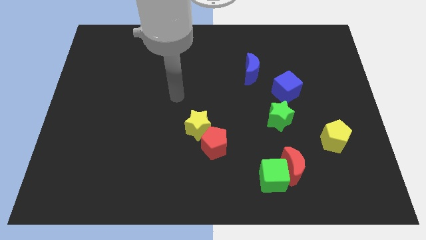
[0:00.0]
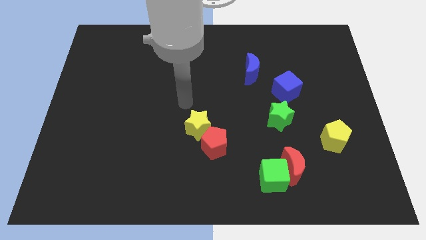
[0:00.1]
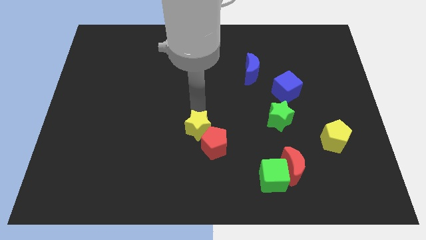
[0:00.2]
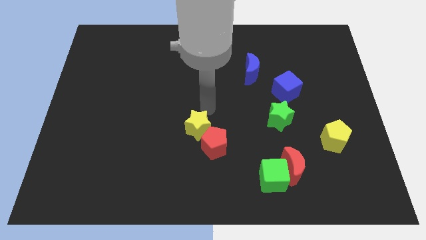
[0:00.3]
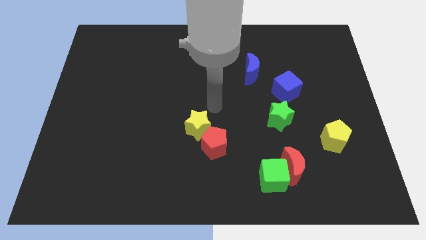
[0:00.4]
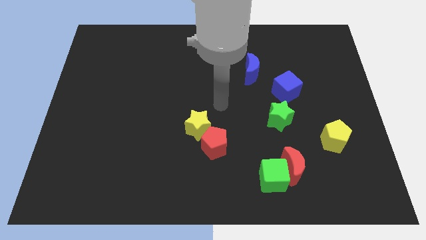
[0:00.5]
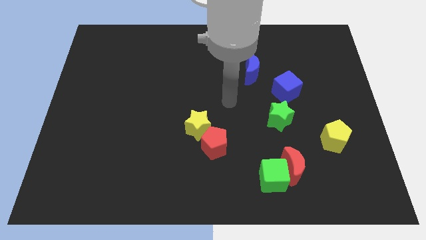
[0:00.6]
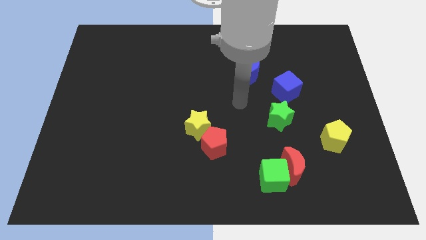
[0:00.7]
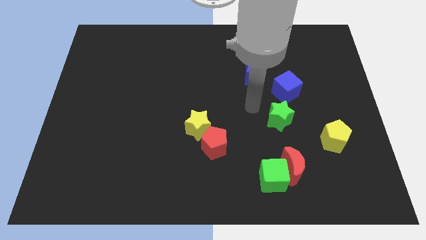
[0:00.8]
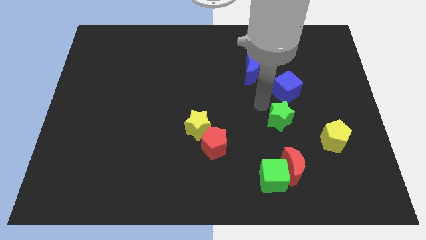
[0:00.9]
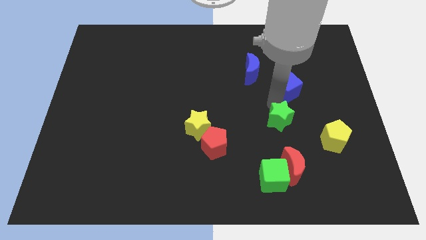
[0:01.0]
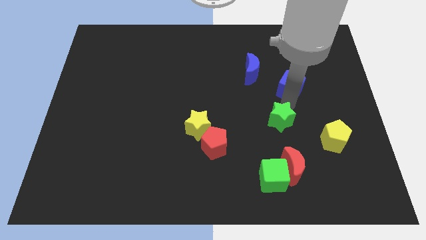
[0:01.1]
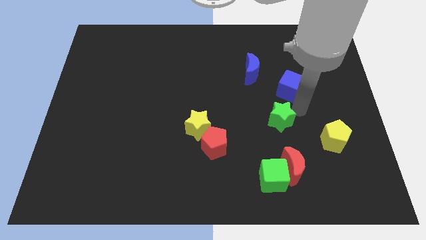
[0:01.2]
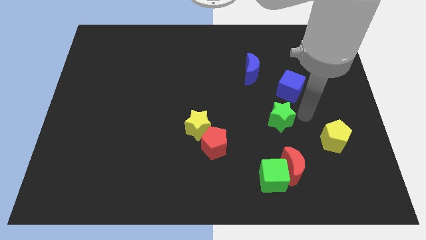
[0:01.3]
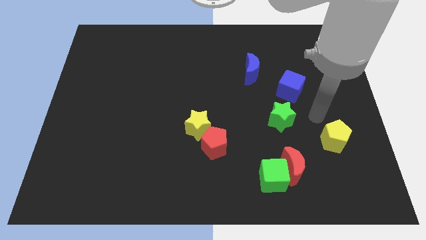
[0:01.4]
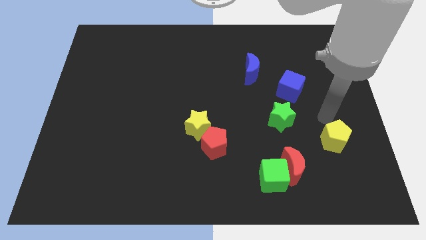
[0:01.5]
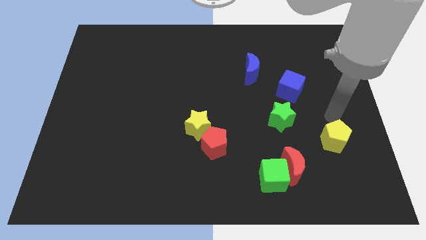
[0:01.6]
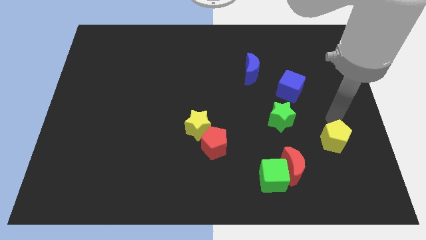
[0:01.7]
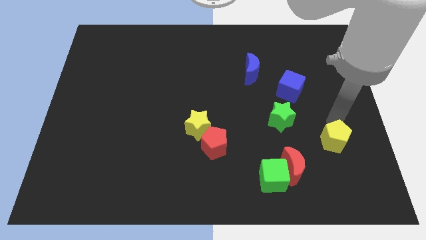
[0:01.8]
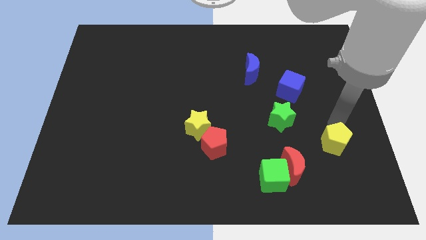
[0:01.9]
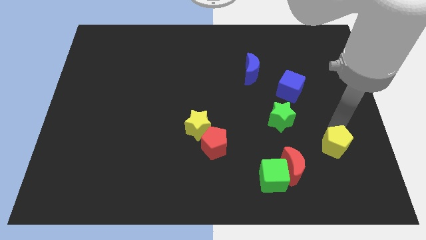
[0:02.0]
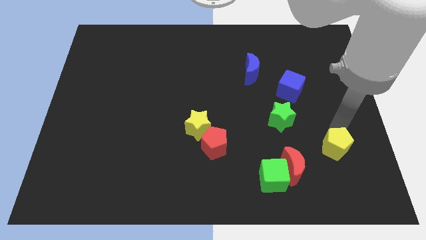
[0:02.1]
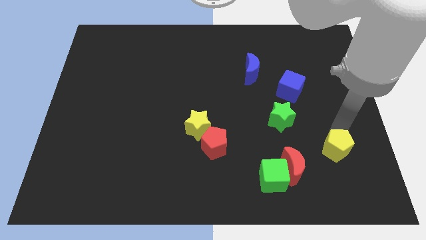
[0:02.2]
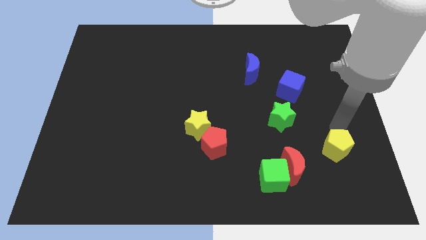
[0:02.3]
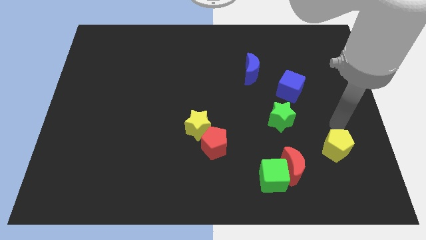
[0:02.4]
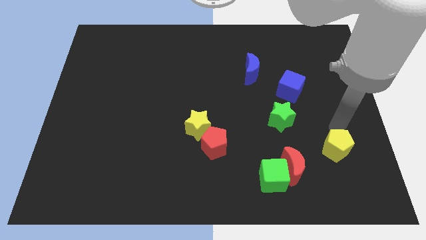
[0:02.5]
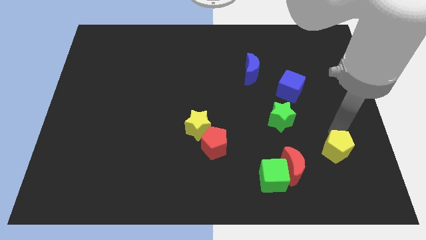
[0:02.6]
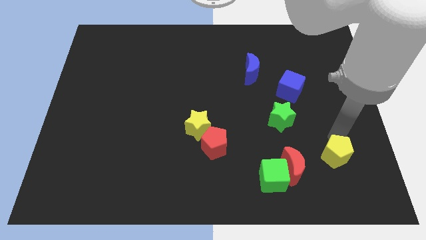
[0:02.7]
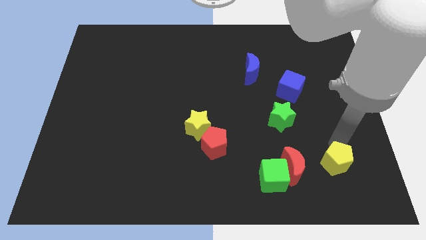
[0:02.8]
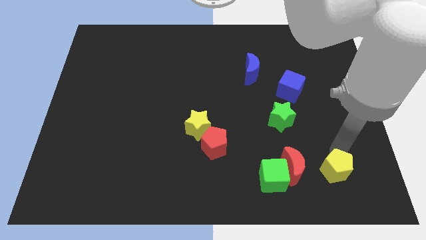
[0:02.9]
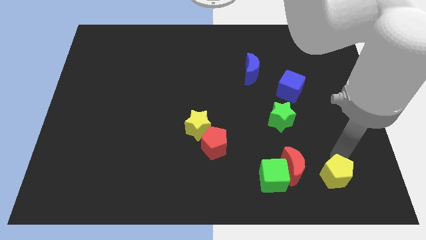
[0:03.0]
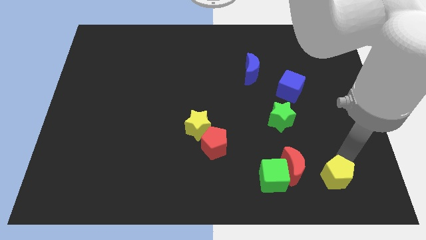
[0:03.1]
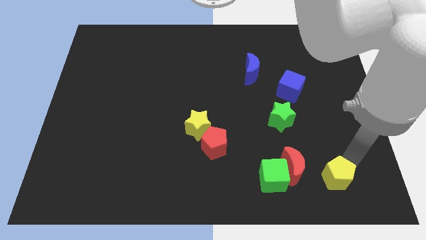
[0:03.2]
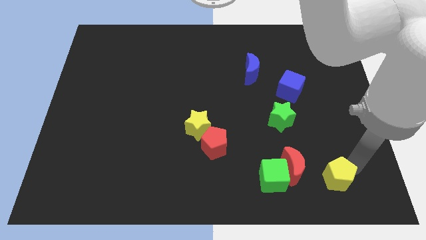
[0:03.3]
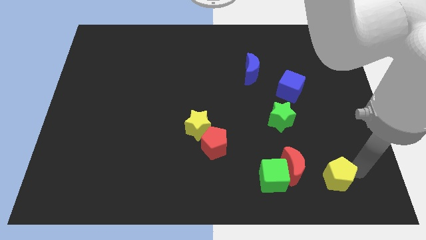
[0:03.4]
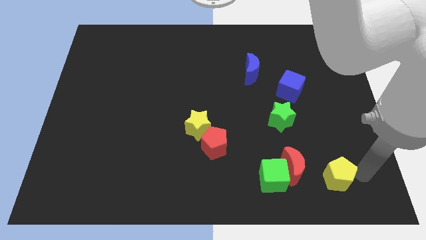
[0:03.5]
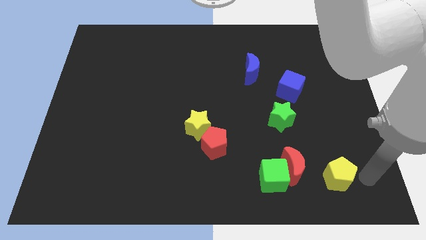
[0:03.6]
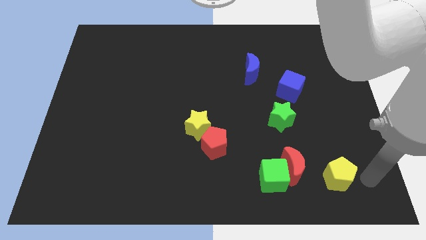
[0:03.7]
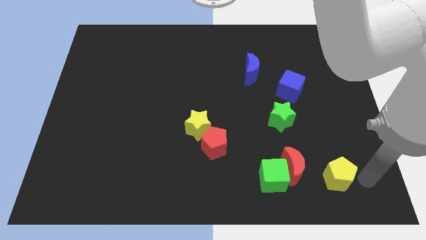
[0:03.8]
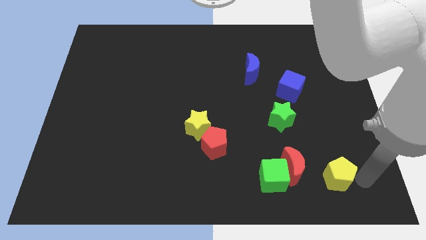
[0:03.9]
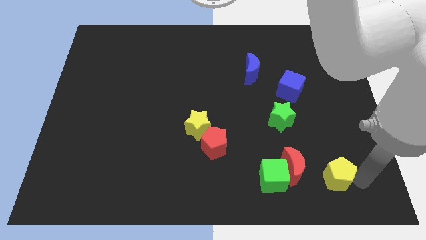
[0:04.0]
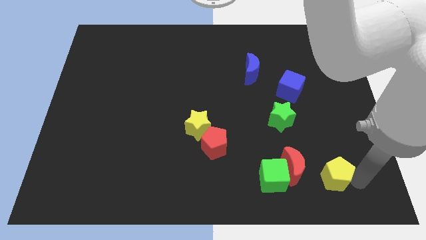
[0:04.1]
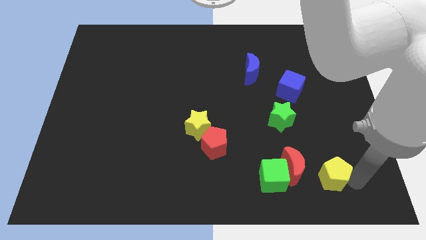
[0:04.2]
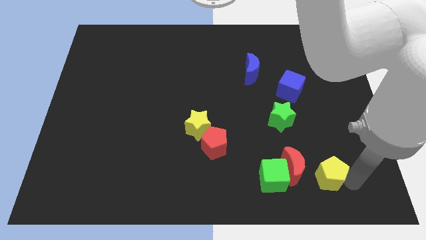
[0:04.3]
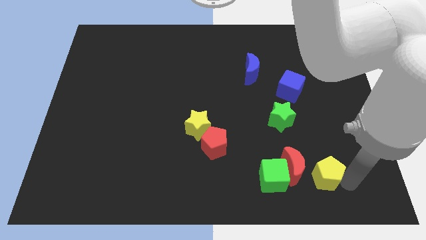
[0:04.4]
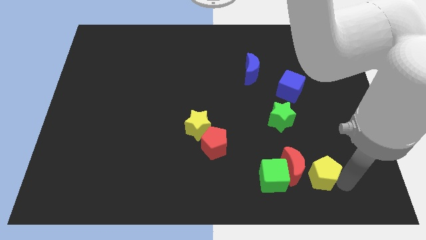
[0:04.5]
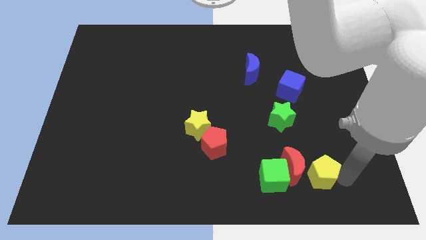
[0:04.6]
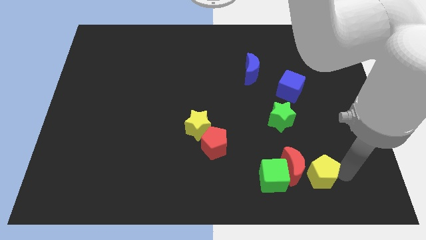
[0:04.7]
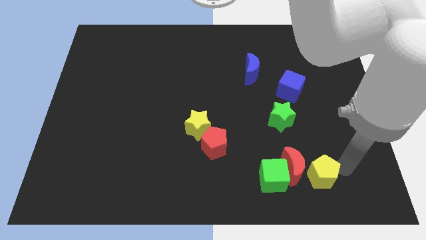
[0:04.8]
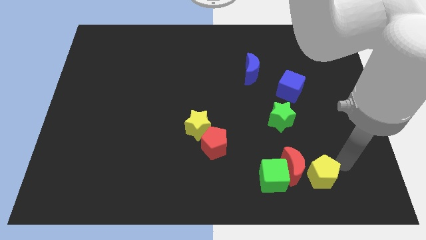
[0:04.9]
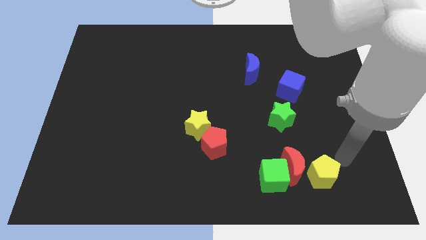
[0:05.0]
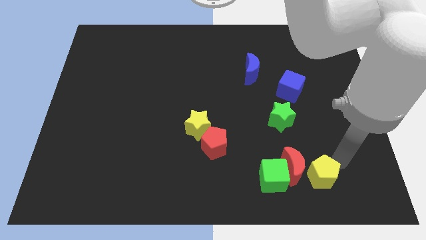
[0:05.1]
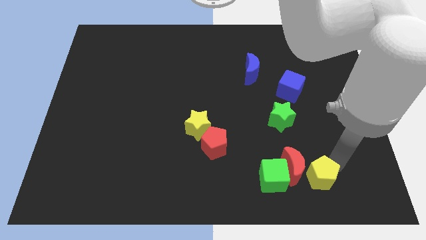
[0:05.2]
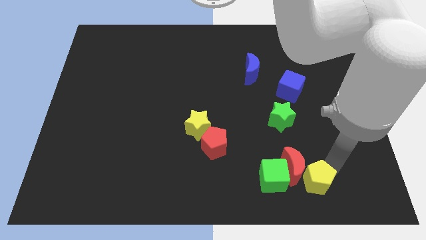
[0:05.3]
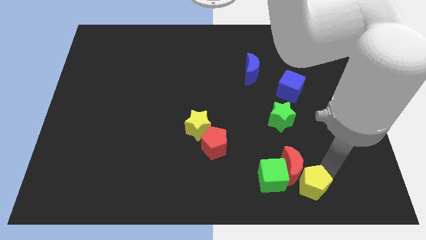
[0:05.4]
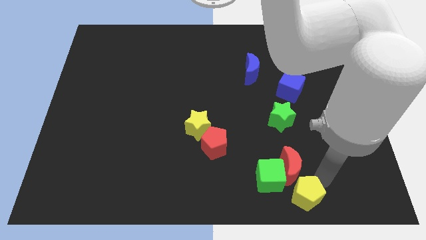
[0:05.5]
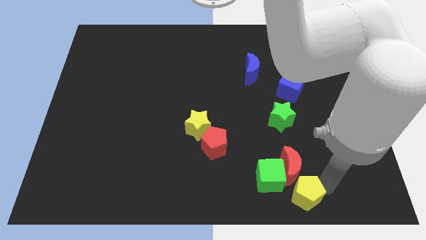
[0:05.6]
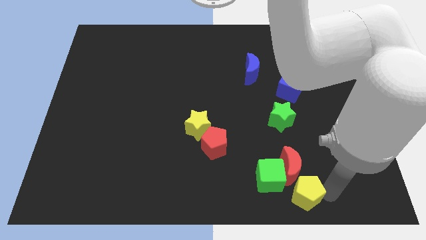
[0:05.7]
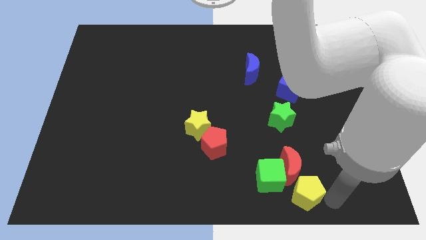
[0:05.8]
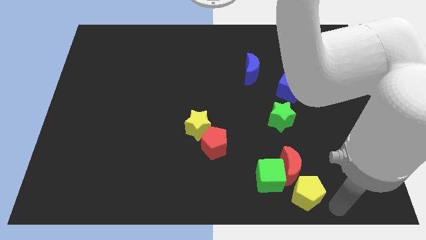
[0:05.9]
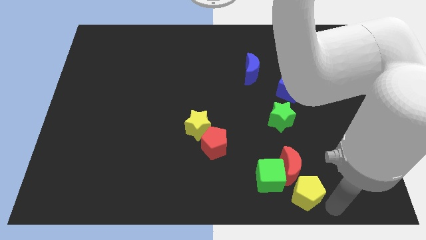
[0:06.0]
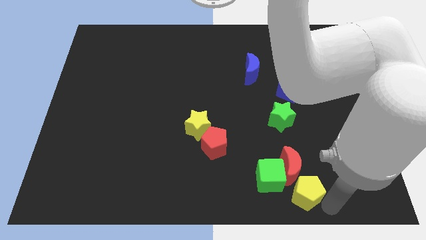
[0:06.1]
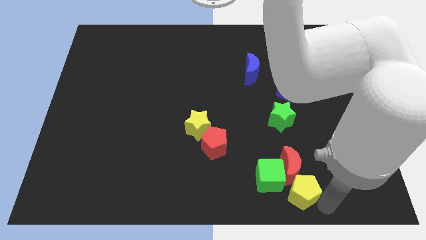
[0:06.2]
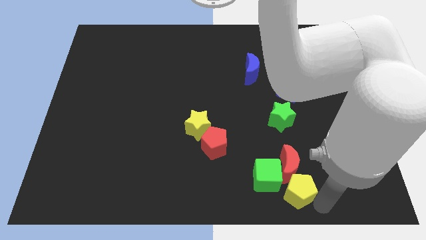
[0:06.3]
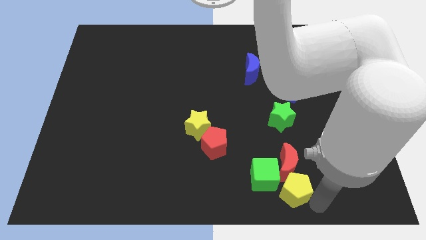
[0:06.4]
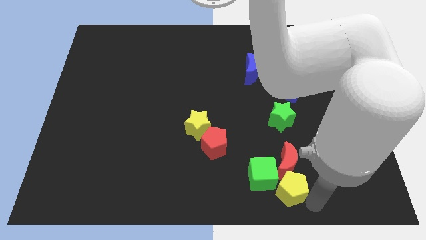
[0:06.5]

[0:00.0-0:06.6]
push the yellow pentagon close to the green cube

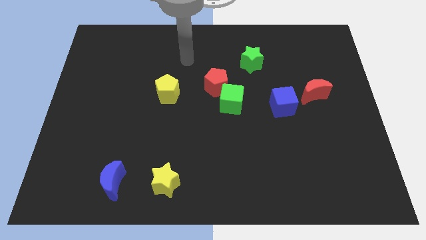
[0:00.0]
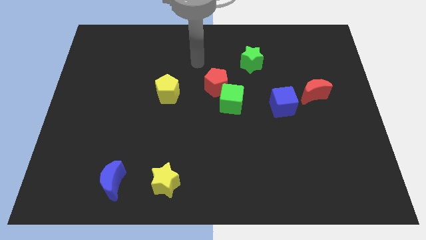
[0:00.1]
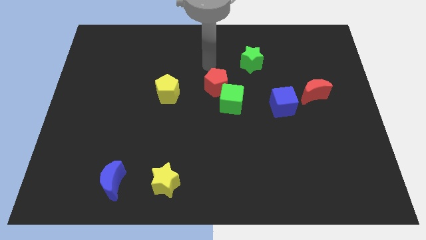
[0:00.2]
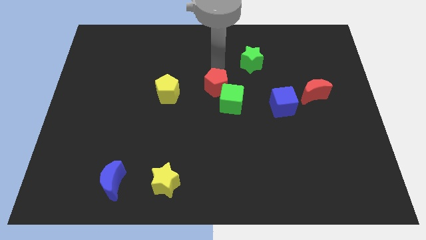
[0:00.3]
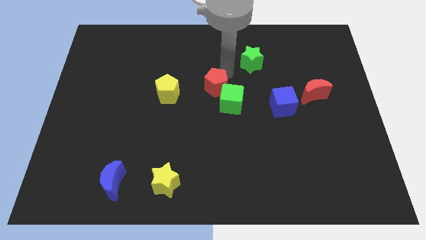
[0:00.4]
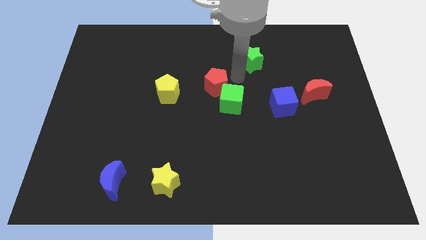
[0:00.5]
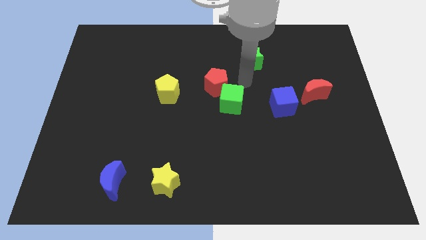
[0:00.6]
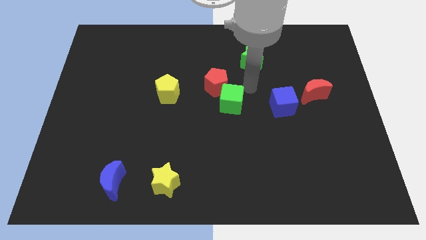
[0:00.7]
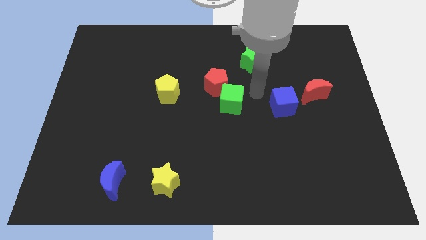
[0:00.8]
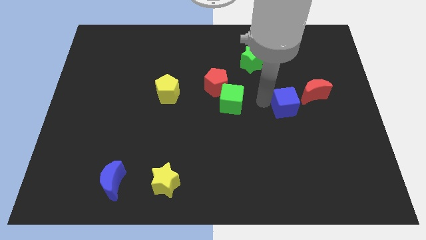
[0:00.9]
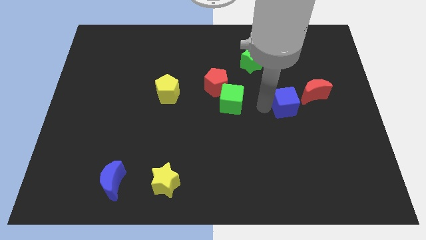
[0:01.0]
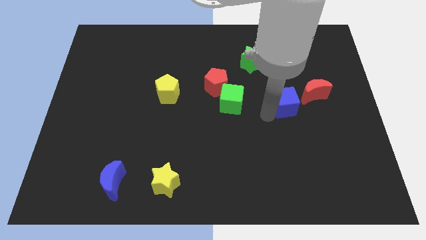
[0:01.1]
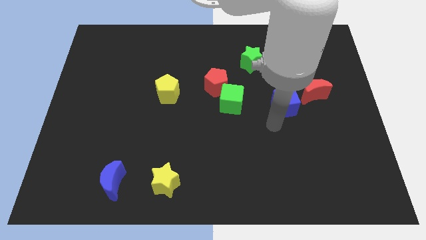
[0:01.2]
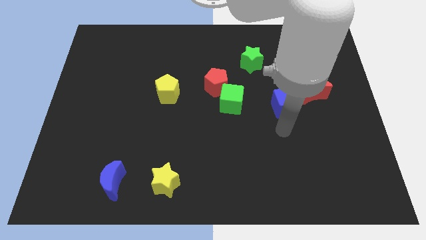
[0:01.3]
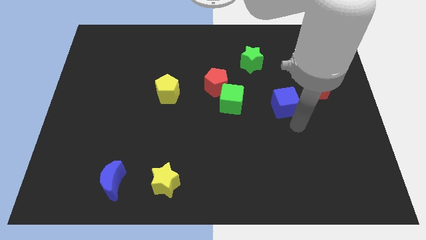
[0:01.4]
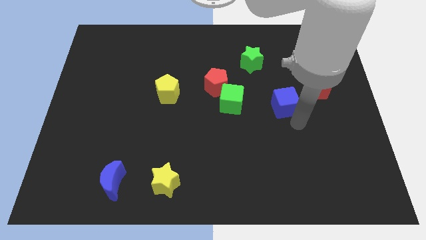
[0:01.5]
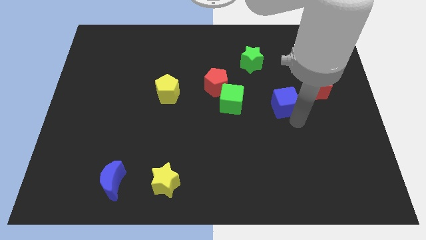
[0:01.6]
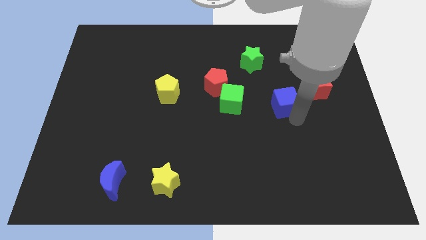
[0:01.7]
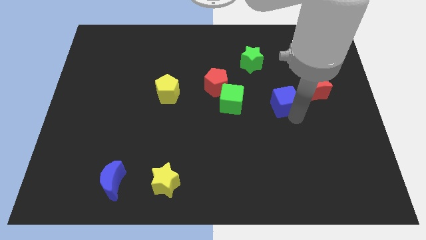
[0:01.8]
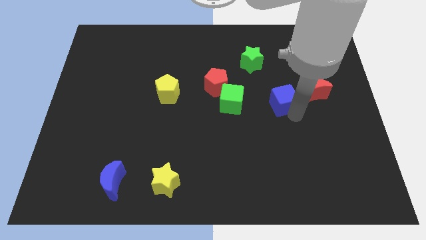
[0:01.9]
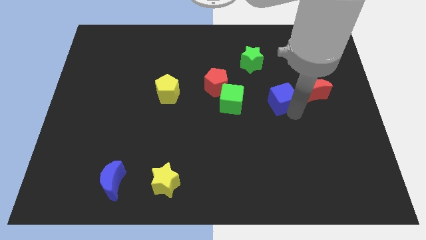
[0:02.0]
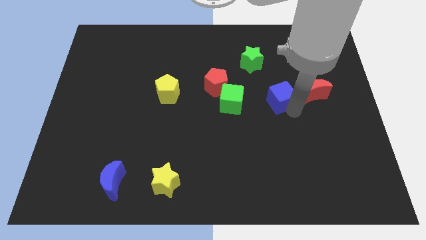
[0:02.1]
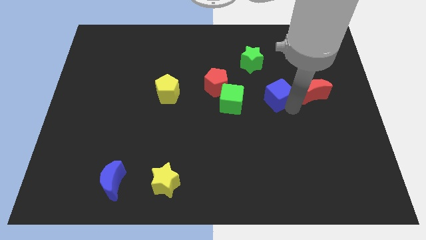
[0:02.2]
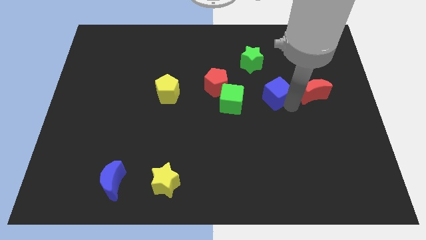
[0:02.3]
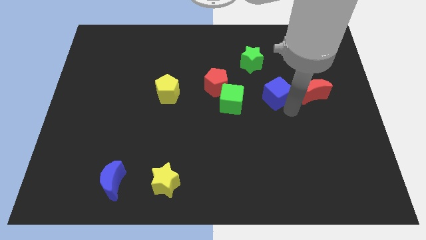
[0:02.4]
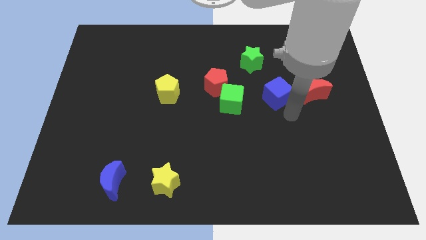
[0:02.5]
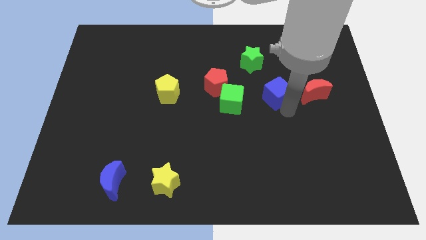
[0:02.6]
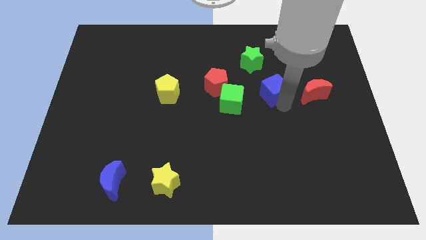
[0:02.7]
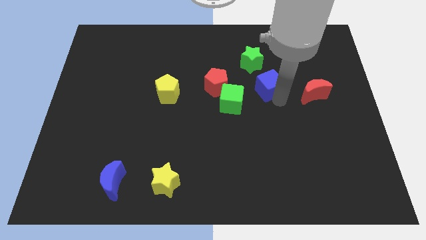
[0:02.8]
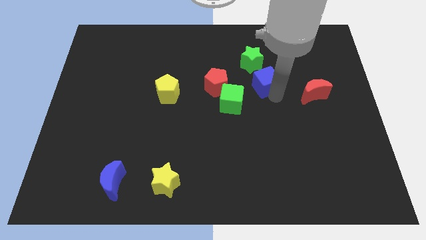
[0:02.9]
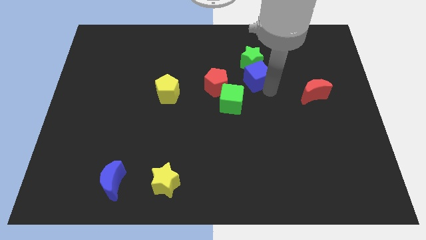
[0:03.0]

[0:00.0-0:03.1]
move the blue cube towards the green star
